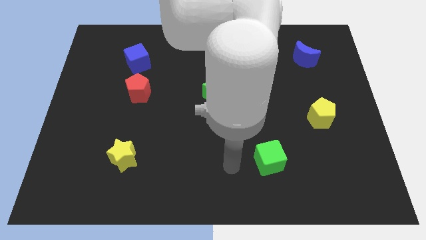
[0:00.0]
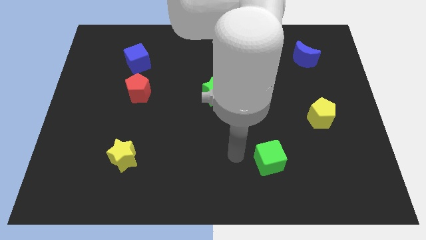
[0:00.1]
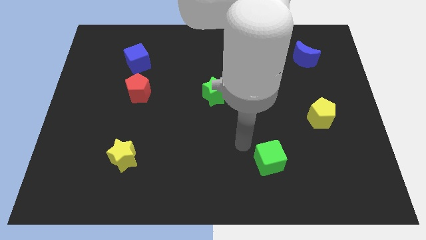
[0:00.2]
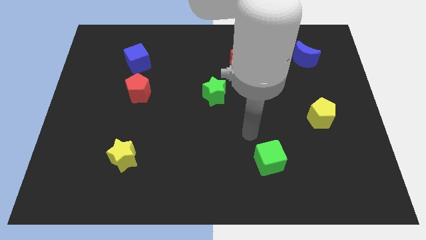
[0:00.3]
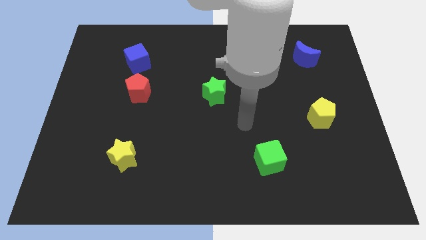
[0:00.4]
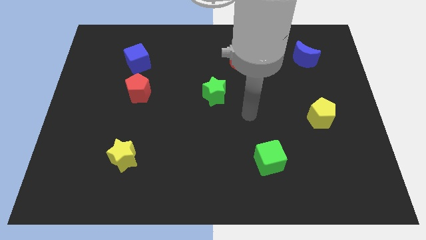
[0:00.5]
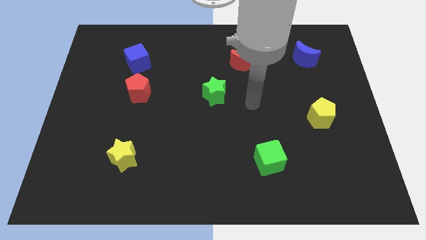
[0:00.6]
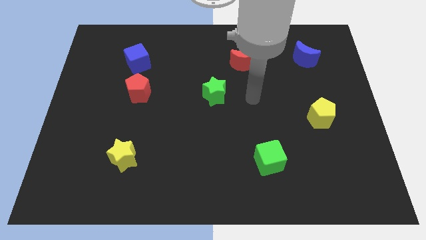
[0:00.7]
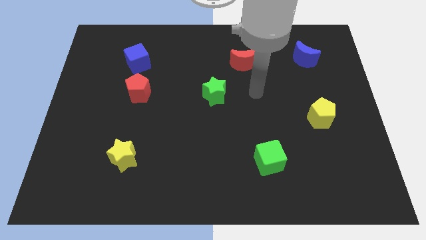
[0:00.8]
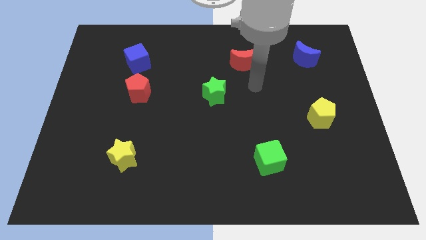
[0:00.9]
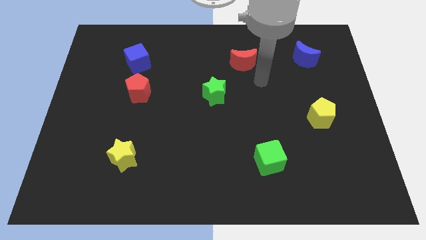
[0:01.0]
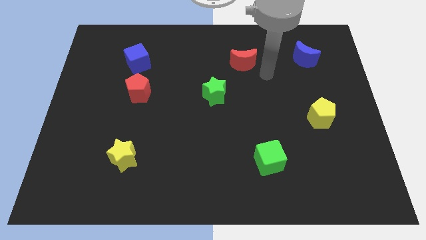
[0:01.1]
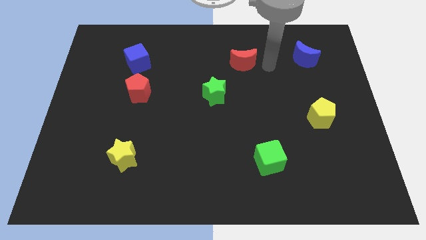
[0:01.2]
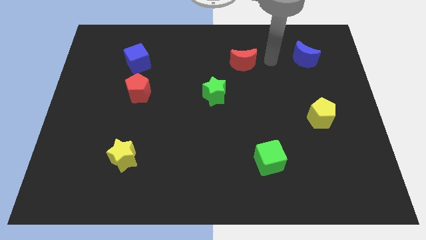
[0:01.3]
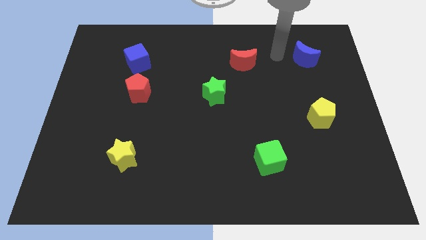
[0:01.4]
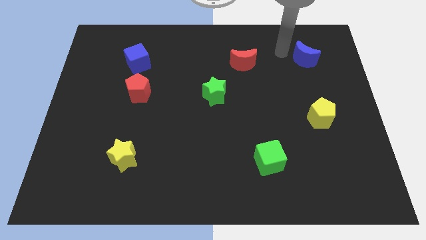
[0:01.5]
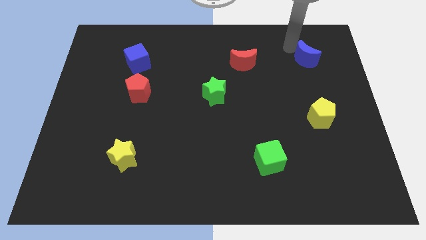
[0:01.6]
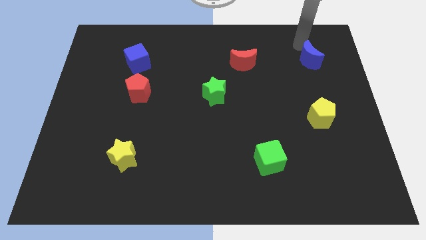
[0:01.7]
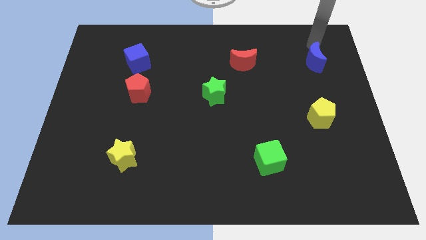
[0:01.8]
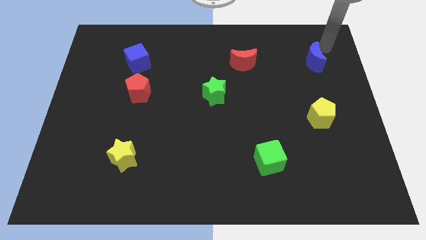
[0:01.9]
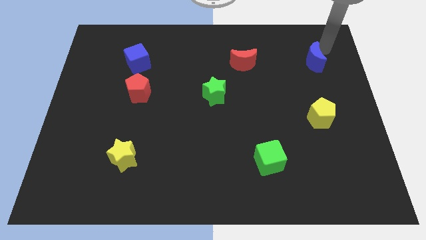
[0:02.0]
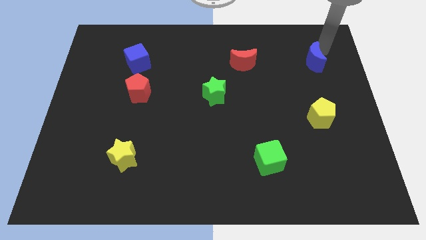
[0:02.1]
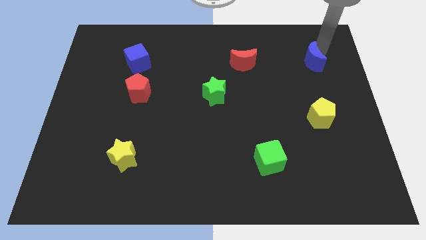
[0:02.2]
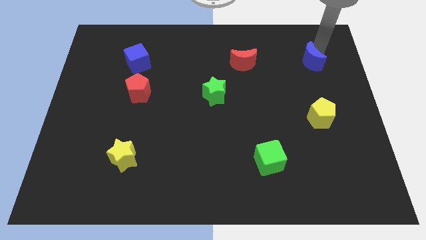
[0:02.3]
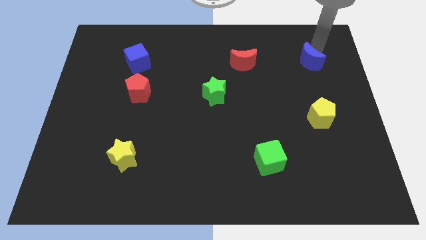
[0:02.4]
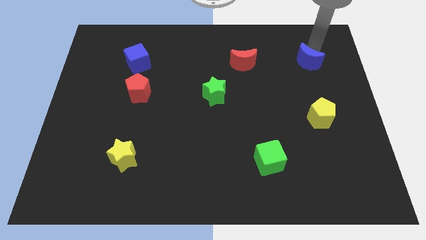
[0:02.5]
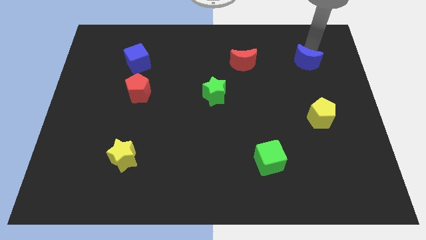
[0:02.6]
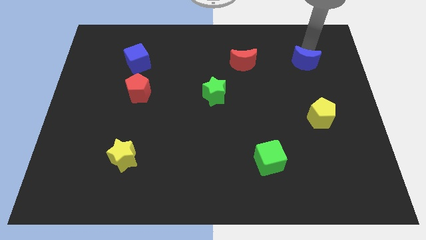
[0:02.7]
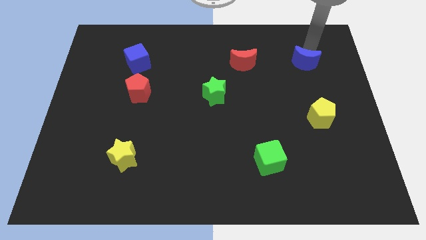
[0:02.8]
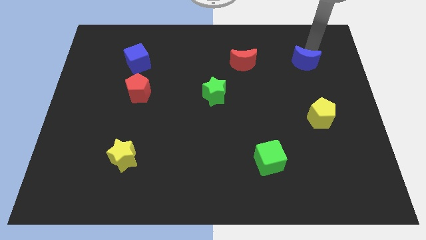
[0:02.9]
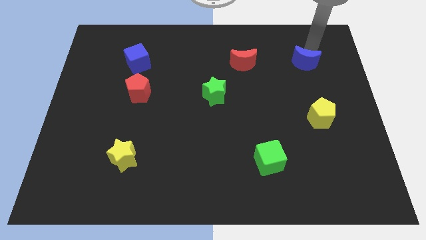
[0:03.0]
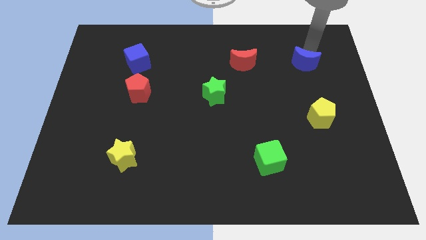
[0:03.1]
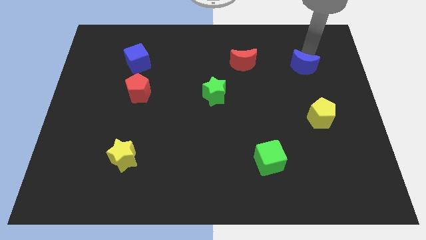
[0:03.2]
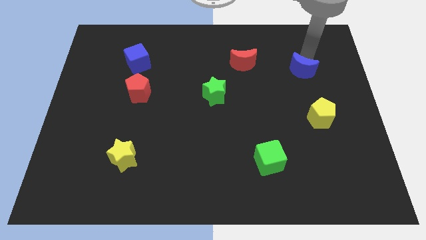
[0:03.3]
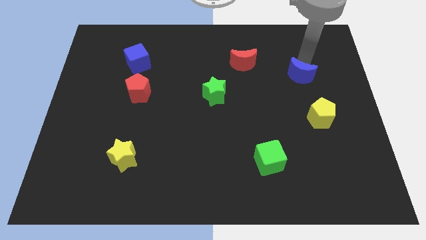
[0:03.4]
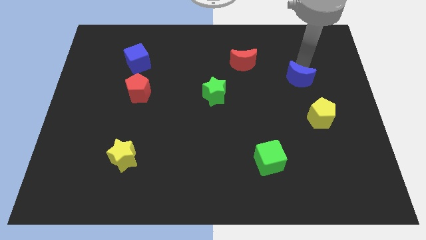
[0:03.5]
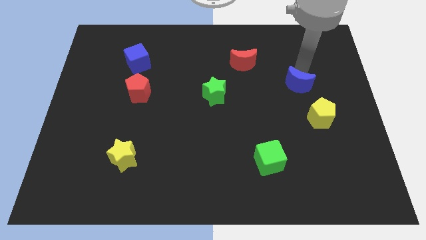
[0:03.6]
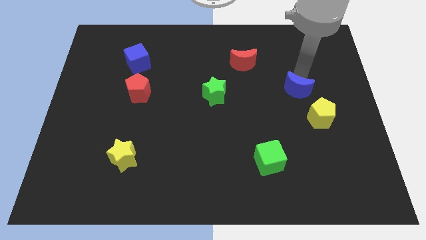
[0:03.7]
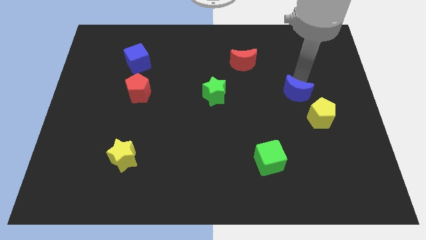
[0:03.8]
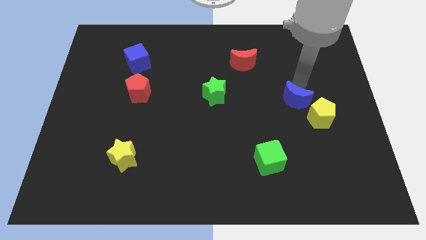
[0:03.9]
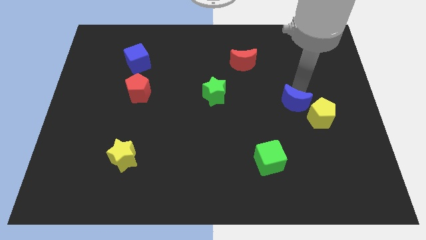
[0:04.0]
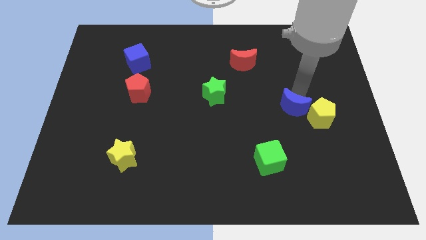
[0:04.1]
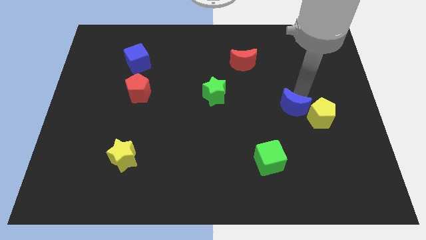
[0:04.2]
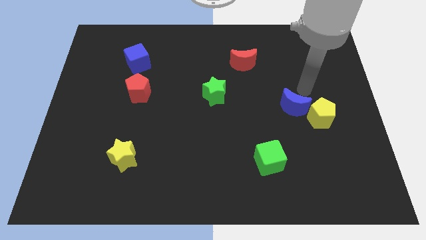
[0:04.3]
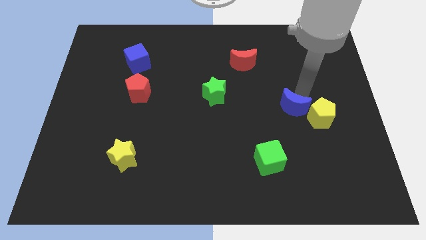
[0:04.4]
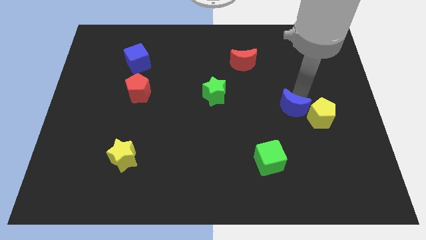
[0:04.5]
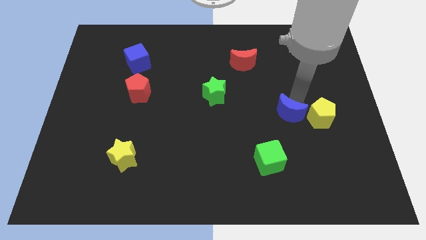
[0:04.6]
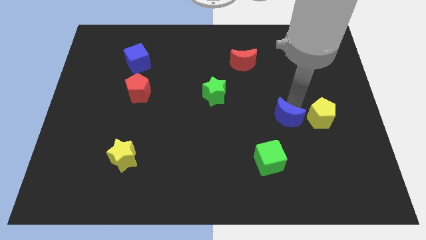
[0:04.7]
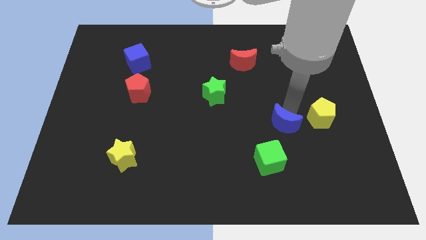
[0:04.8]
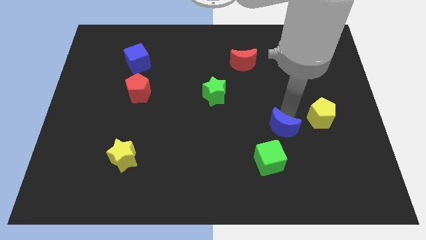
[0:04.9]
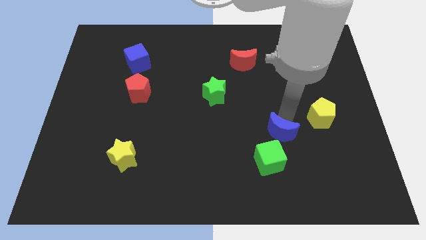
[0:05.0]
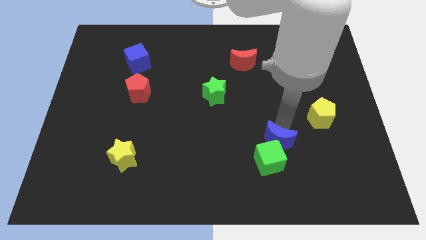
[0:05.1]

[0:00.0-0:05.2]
put the blue moon to the green cube

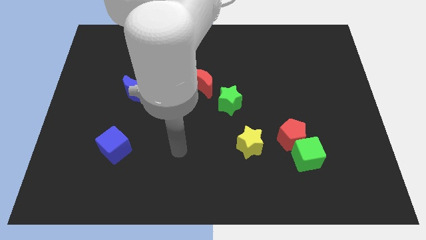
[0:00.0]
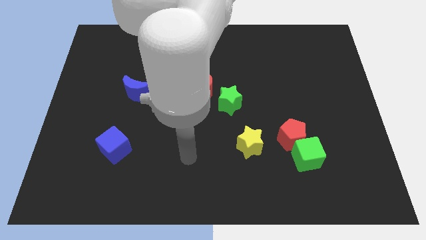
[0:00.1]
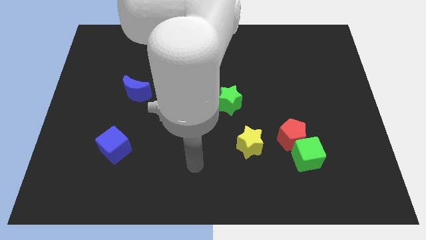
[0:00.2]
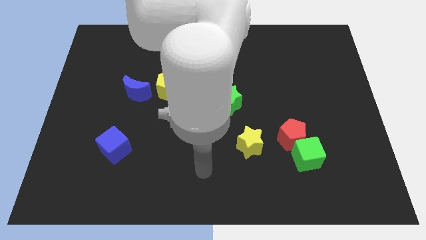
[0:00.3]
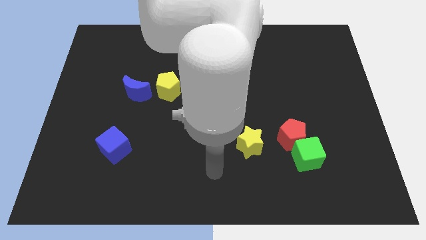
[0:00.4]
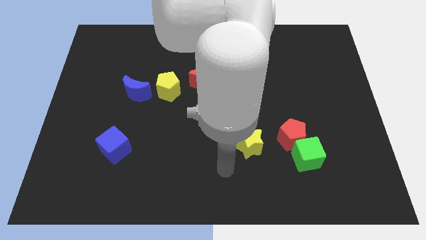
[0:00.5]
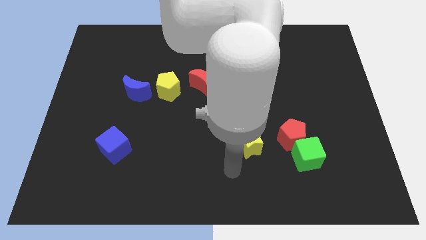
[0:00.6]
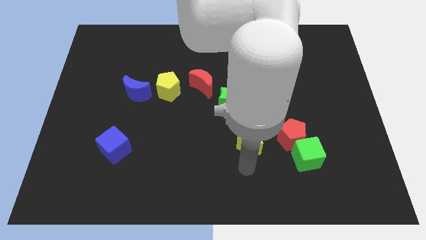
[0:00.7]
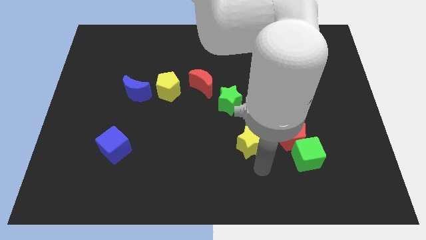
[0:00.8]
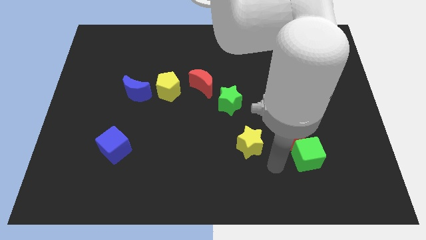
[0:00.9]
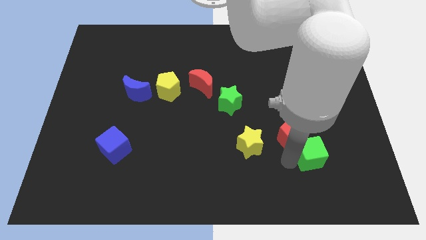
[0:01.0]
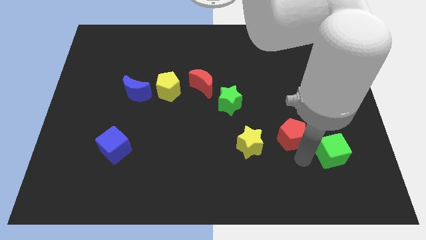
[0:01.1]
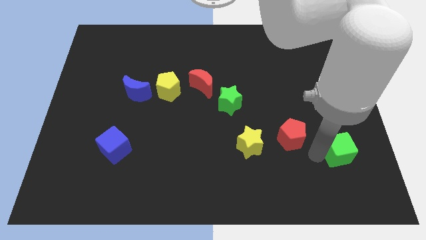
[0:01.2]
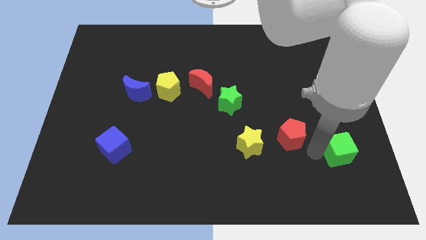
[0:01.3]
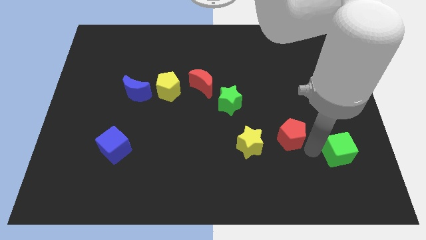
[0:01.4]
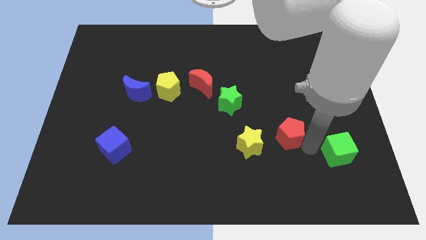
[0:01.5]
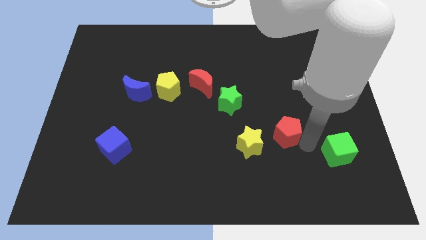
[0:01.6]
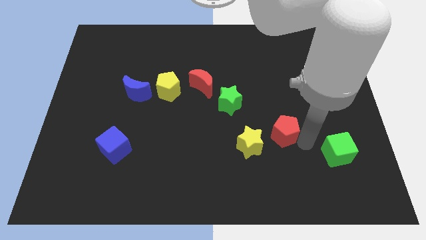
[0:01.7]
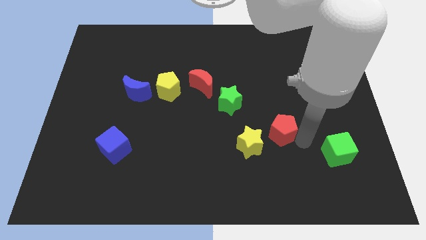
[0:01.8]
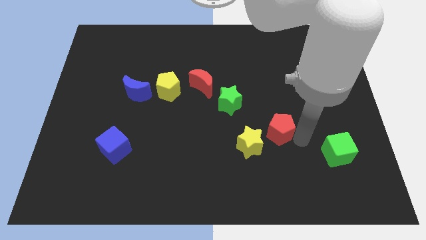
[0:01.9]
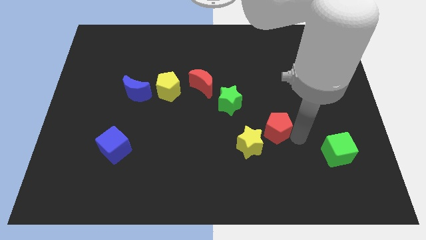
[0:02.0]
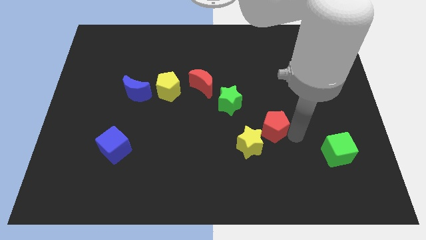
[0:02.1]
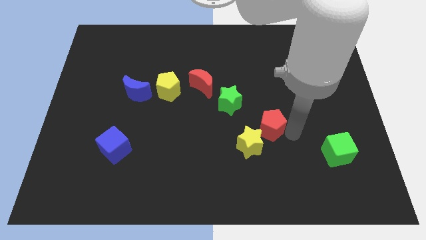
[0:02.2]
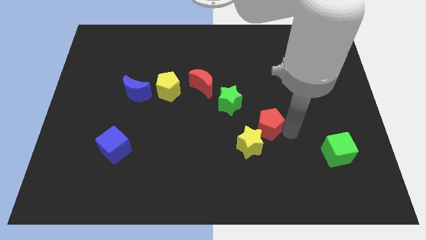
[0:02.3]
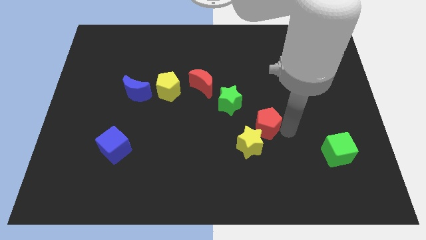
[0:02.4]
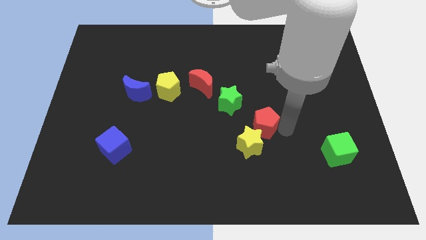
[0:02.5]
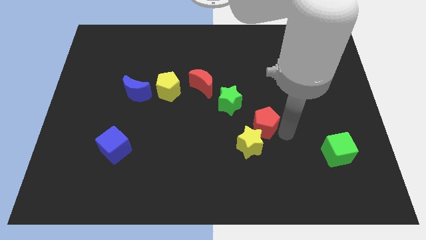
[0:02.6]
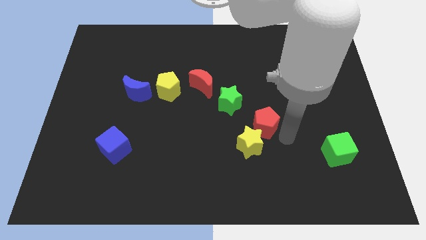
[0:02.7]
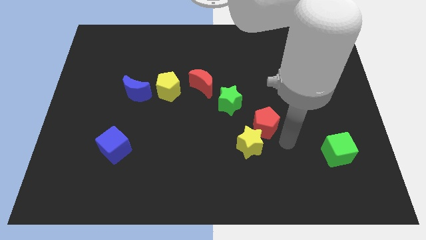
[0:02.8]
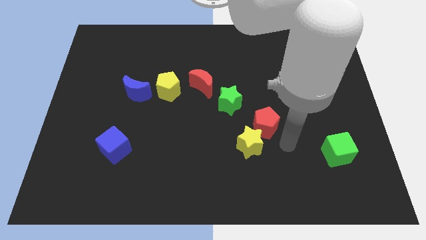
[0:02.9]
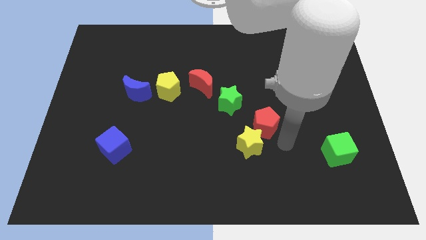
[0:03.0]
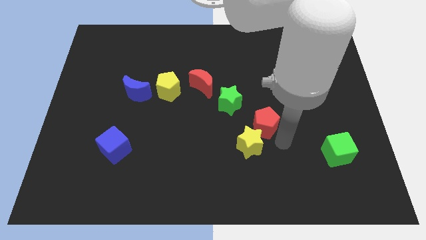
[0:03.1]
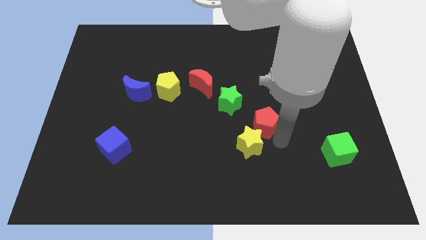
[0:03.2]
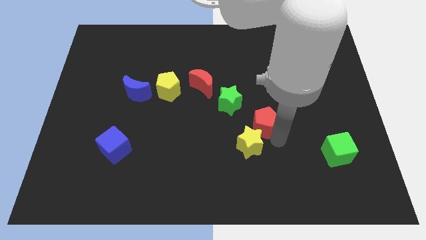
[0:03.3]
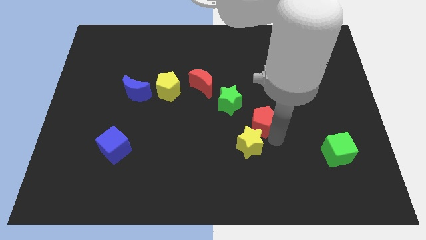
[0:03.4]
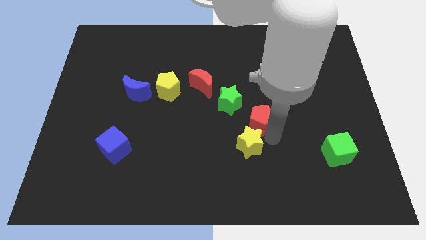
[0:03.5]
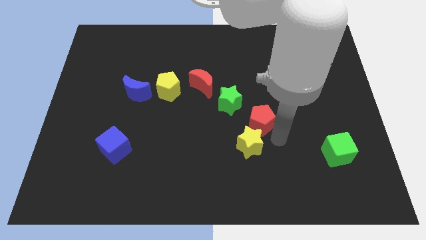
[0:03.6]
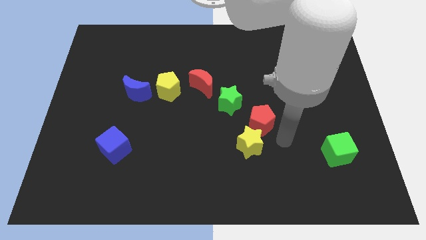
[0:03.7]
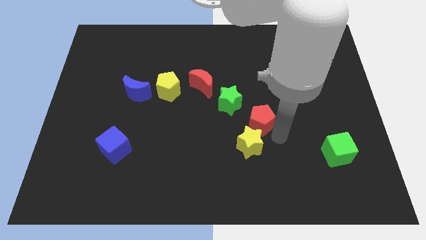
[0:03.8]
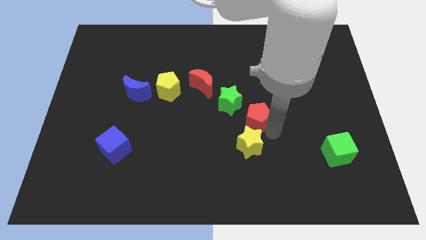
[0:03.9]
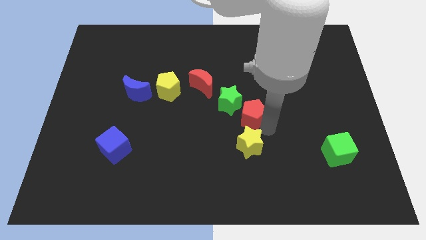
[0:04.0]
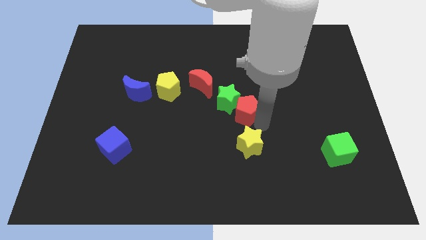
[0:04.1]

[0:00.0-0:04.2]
move the red pentagon close to the green star
